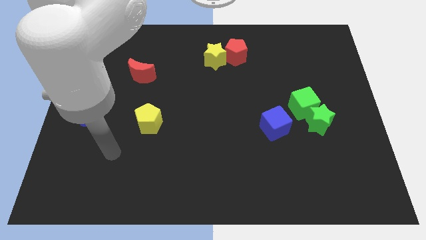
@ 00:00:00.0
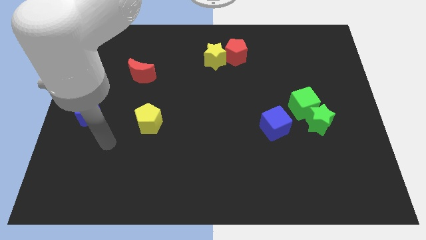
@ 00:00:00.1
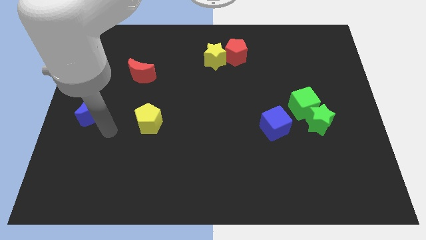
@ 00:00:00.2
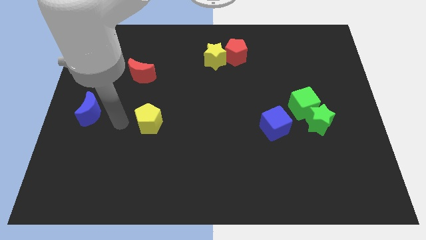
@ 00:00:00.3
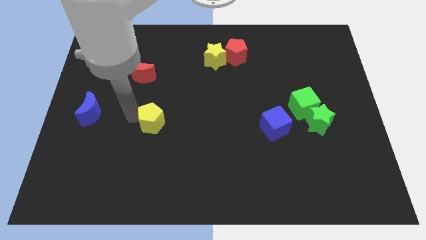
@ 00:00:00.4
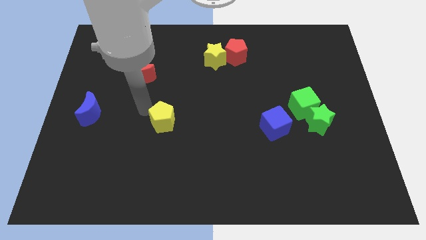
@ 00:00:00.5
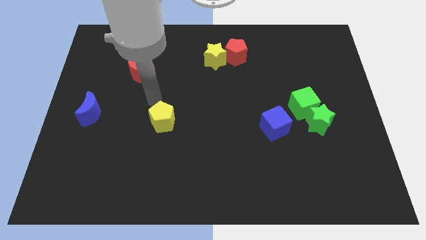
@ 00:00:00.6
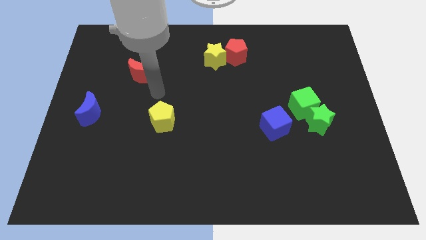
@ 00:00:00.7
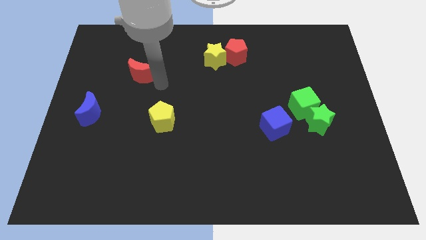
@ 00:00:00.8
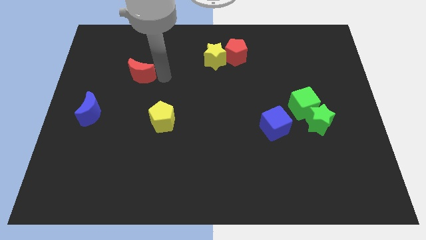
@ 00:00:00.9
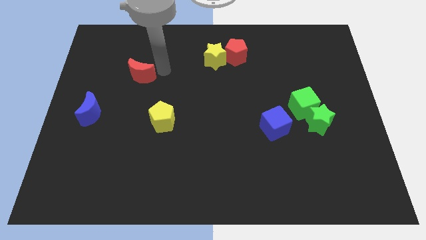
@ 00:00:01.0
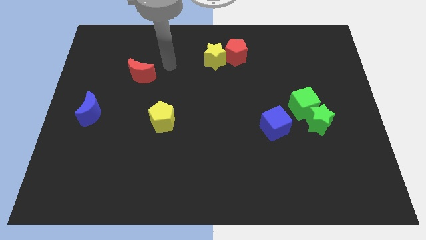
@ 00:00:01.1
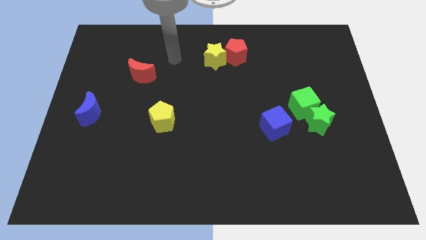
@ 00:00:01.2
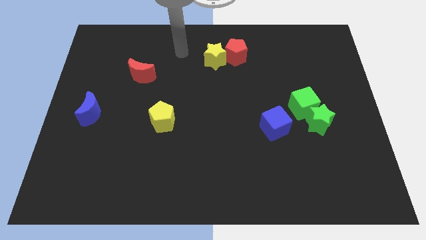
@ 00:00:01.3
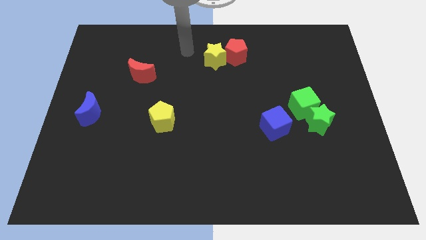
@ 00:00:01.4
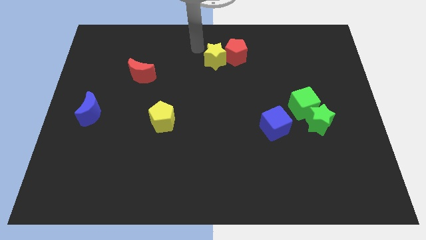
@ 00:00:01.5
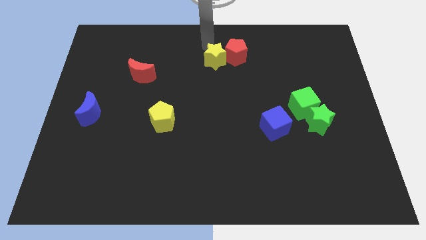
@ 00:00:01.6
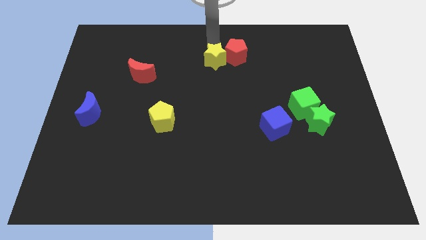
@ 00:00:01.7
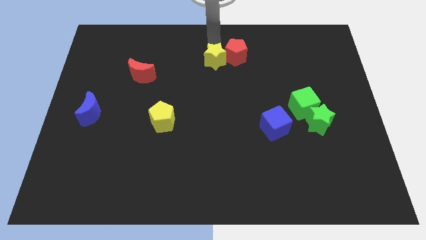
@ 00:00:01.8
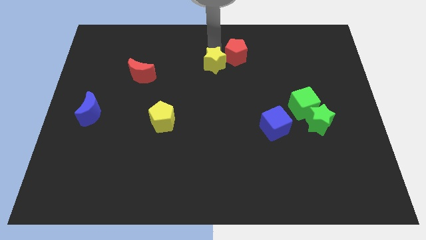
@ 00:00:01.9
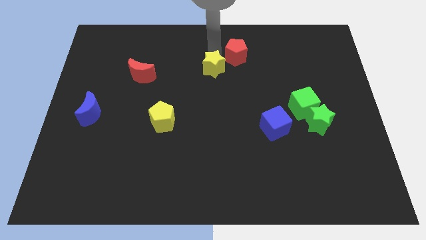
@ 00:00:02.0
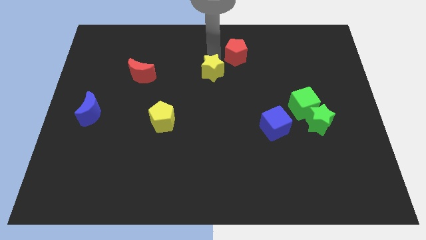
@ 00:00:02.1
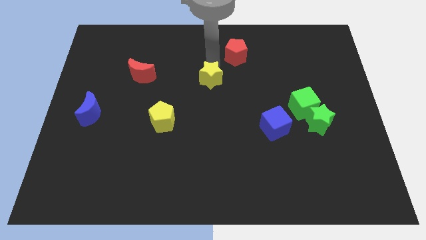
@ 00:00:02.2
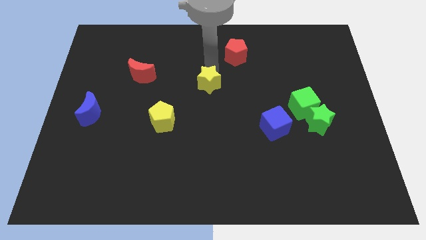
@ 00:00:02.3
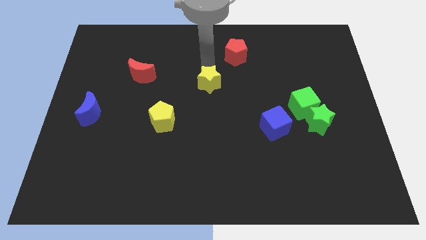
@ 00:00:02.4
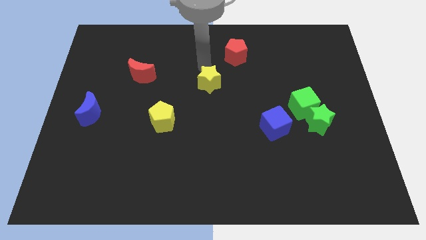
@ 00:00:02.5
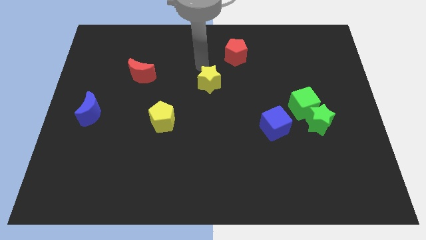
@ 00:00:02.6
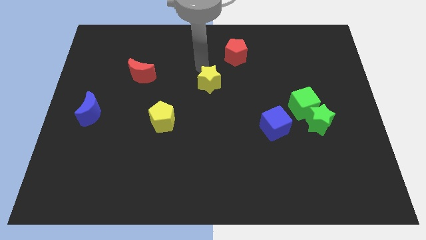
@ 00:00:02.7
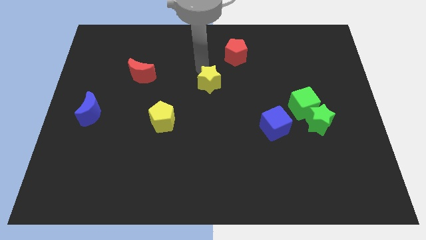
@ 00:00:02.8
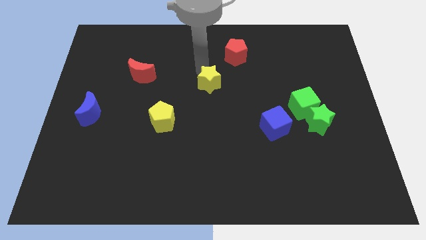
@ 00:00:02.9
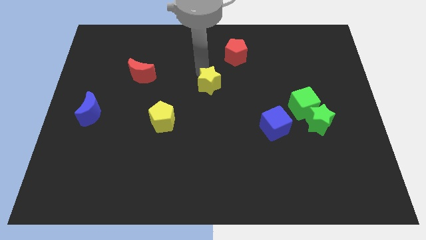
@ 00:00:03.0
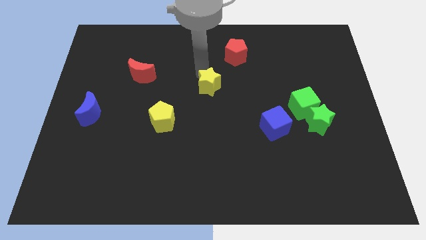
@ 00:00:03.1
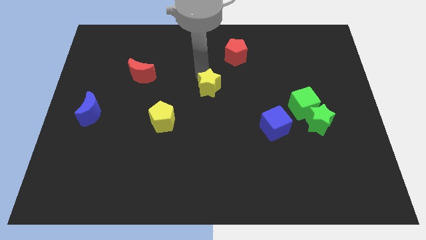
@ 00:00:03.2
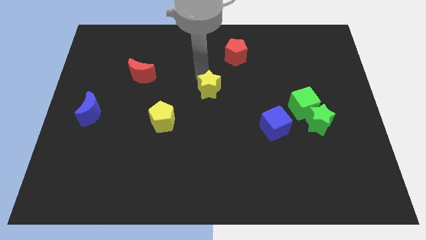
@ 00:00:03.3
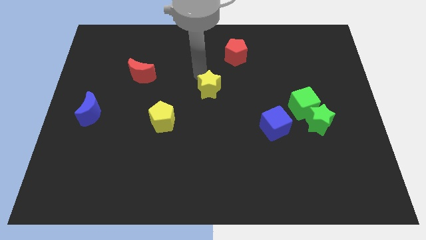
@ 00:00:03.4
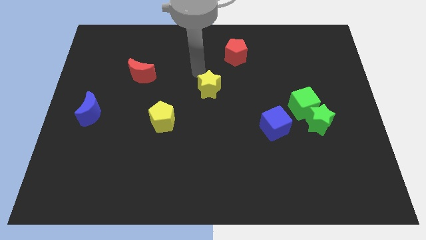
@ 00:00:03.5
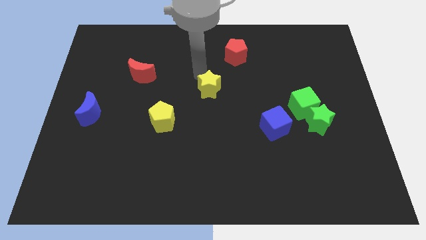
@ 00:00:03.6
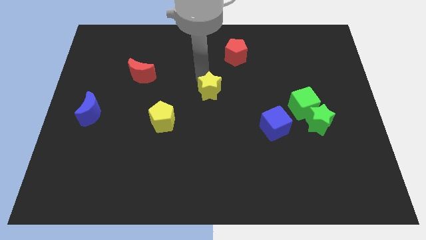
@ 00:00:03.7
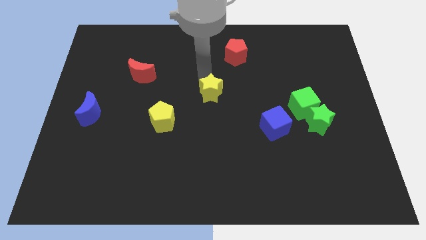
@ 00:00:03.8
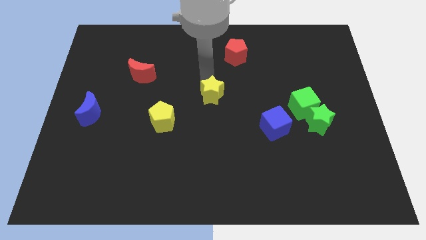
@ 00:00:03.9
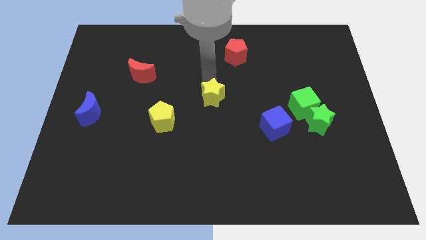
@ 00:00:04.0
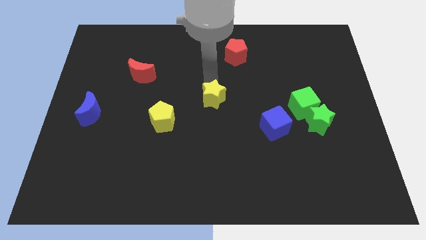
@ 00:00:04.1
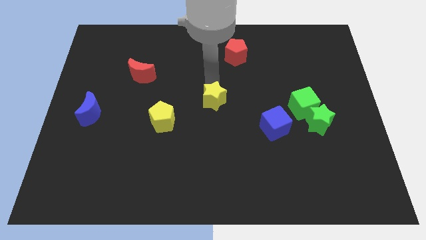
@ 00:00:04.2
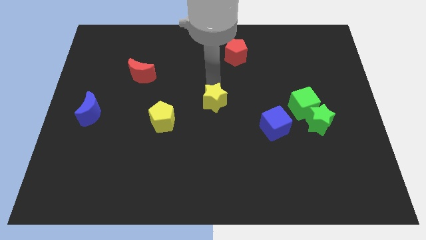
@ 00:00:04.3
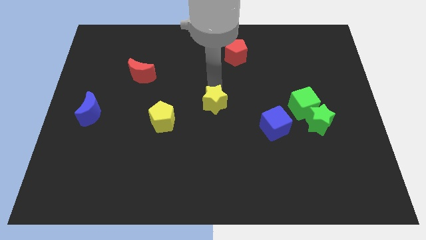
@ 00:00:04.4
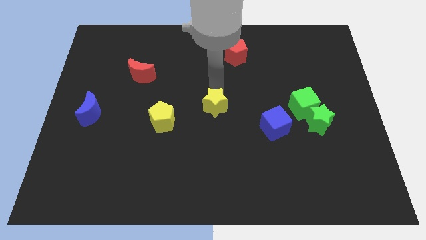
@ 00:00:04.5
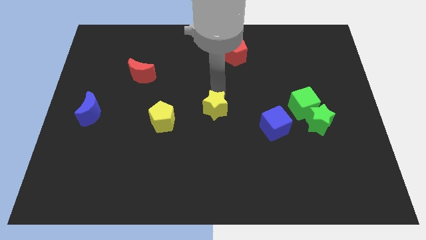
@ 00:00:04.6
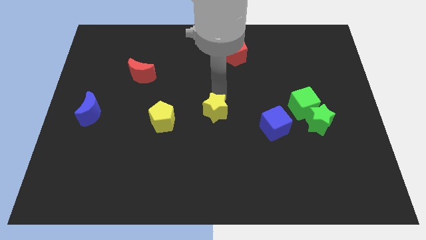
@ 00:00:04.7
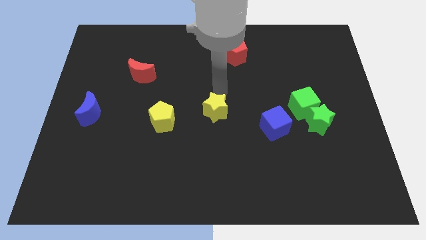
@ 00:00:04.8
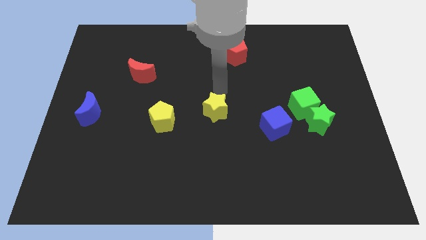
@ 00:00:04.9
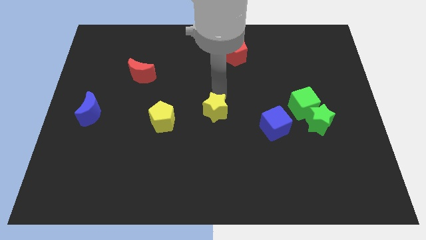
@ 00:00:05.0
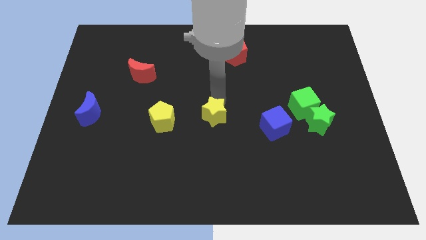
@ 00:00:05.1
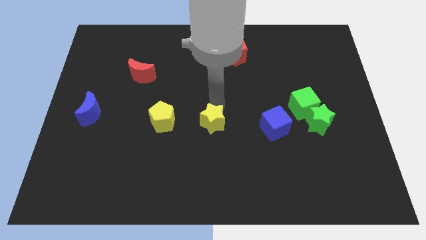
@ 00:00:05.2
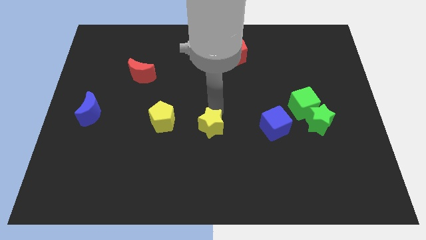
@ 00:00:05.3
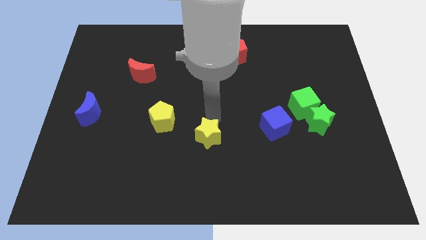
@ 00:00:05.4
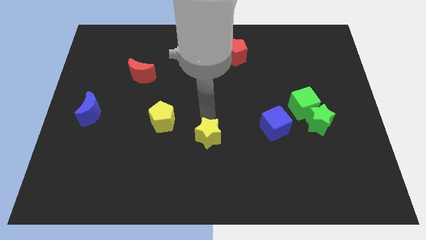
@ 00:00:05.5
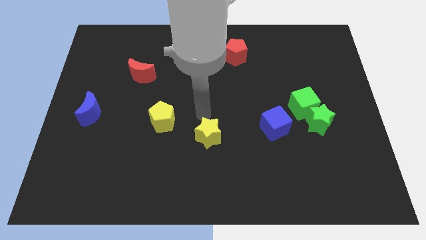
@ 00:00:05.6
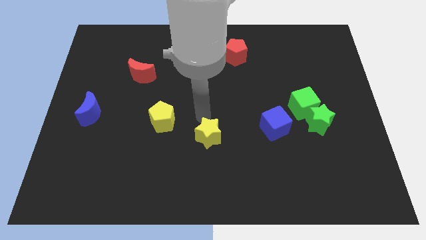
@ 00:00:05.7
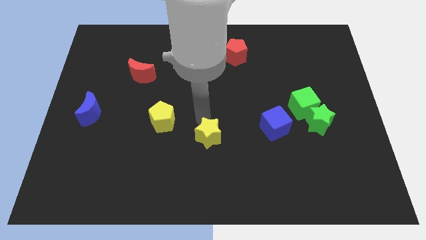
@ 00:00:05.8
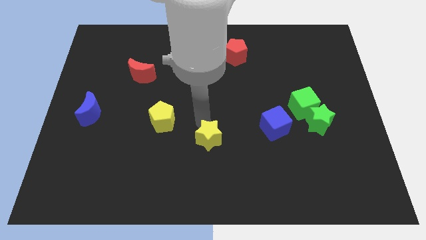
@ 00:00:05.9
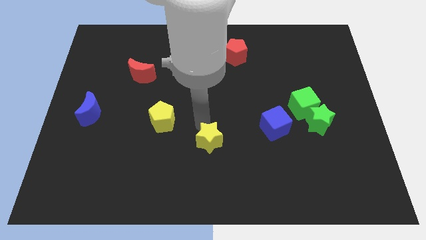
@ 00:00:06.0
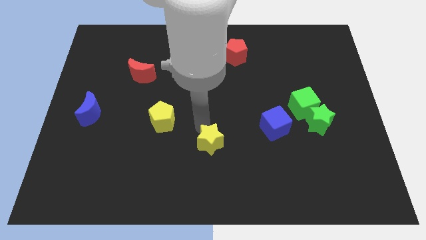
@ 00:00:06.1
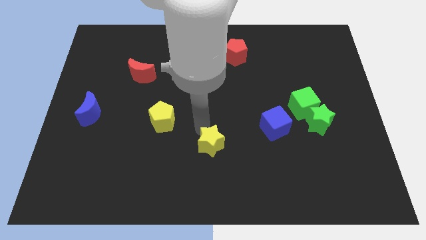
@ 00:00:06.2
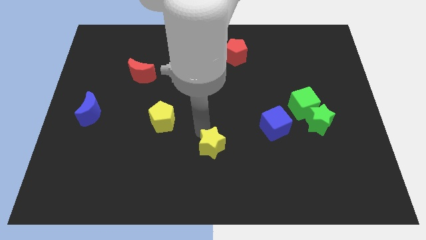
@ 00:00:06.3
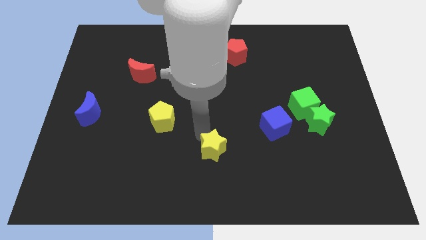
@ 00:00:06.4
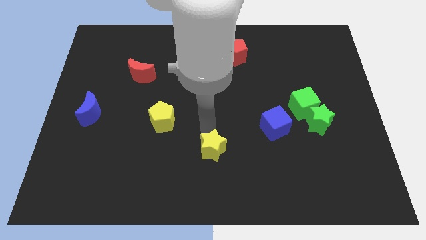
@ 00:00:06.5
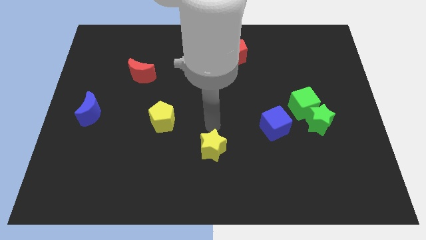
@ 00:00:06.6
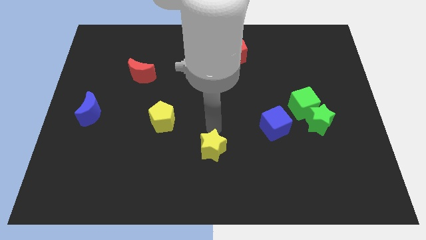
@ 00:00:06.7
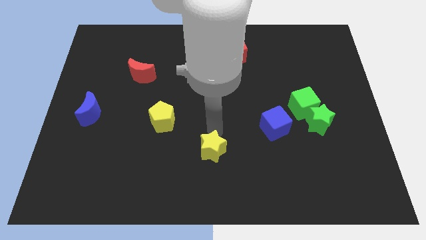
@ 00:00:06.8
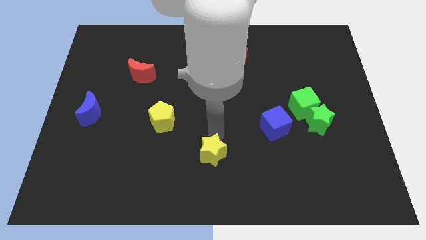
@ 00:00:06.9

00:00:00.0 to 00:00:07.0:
move the yellow star to the bottom side
